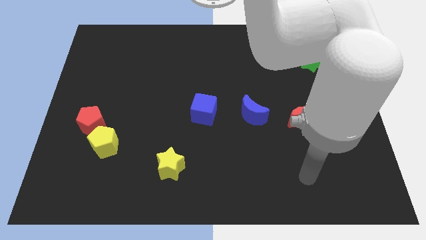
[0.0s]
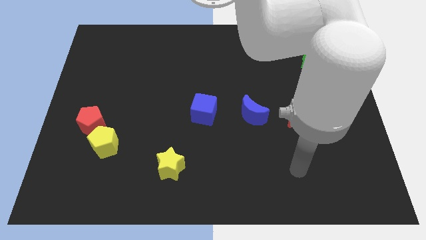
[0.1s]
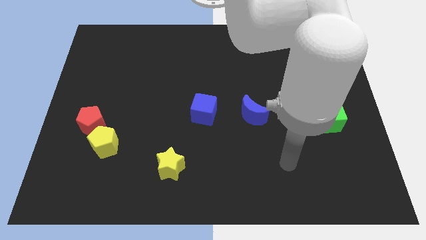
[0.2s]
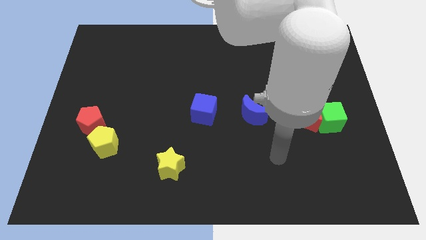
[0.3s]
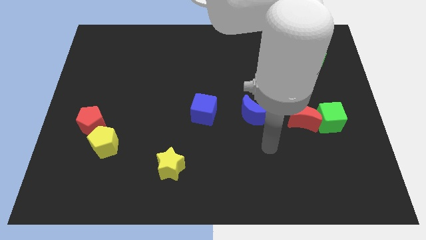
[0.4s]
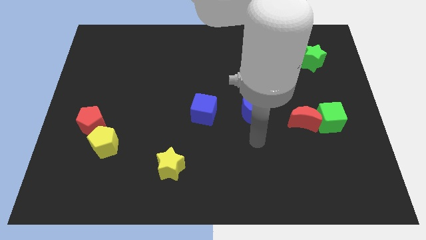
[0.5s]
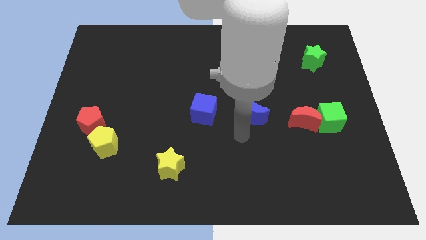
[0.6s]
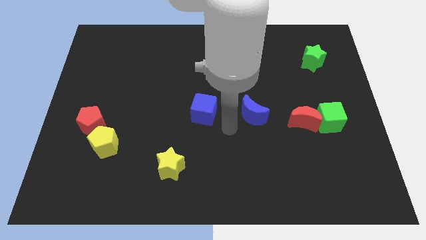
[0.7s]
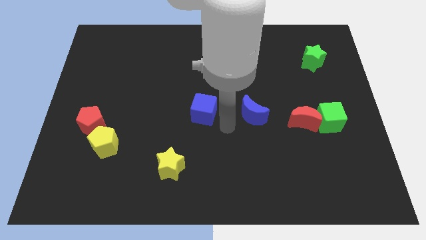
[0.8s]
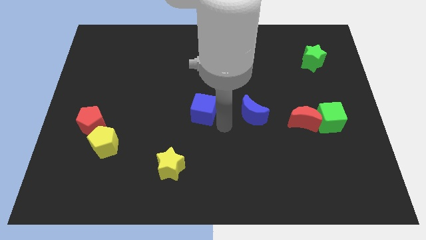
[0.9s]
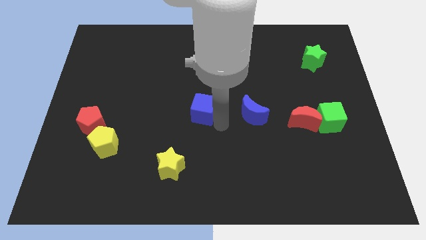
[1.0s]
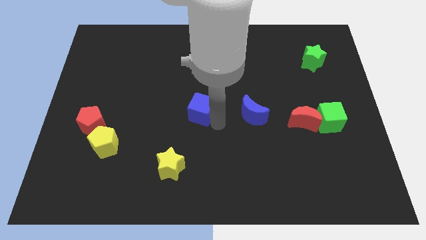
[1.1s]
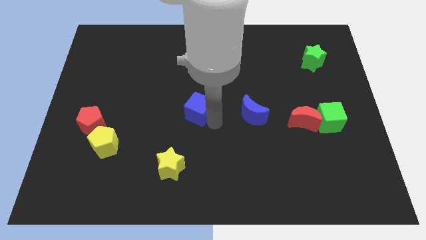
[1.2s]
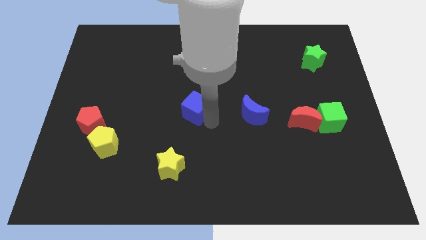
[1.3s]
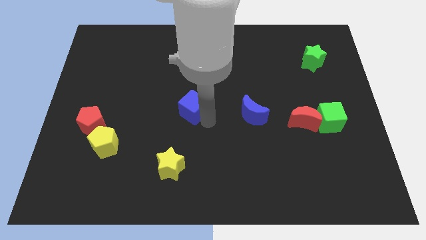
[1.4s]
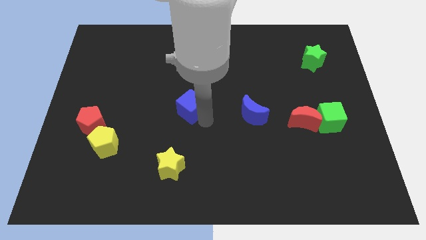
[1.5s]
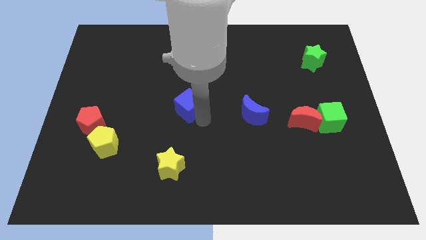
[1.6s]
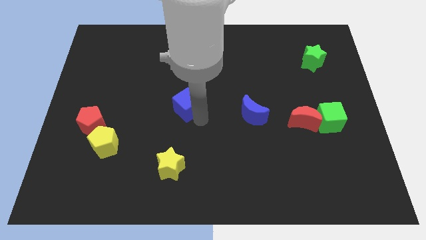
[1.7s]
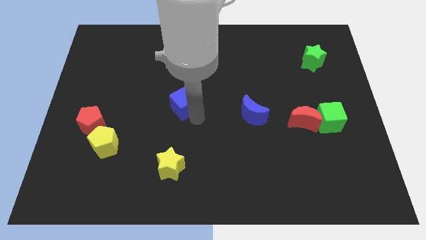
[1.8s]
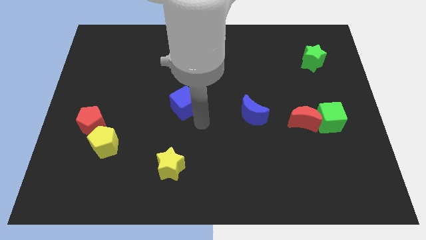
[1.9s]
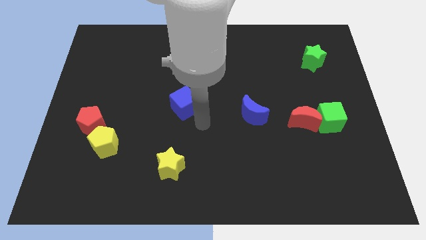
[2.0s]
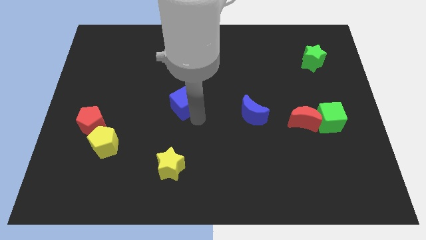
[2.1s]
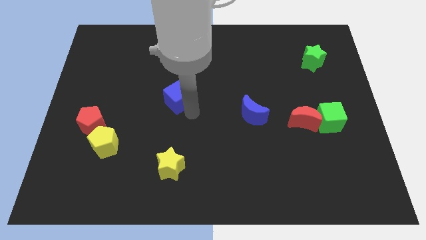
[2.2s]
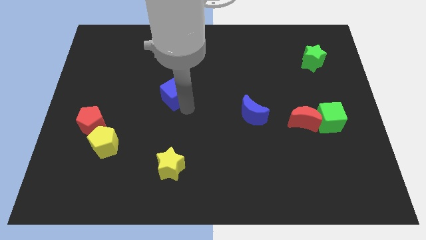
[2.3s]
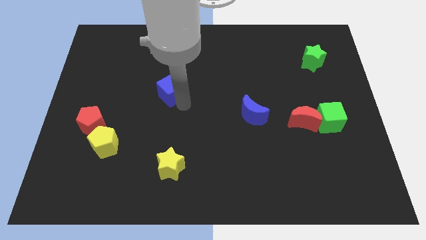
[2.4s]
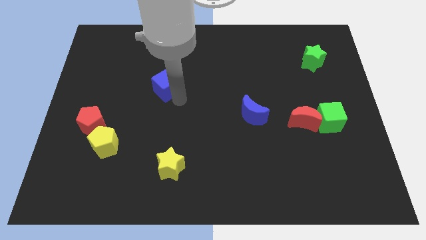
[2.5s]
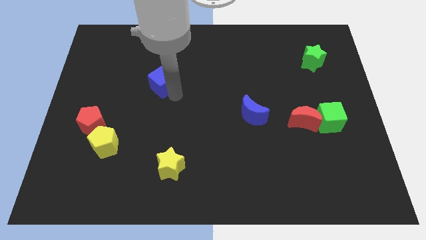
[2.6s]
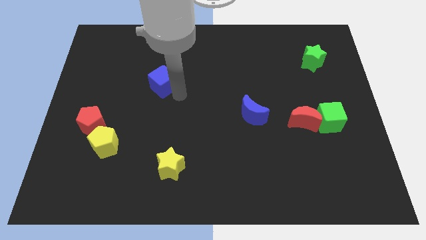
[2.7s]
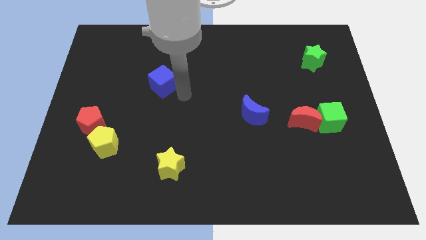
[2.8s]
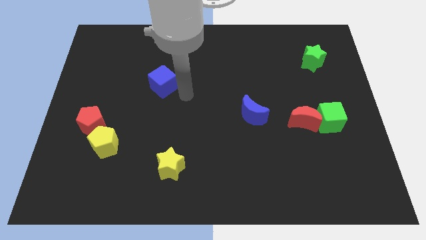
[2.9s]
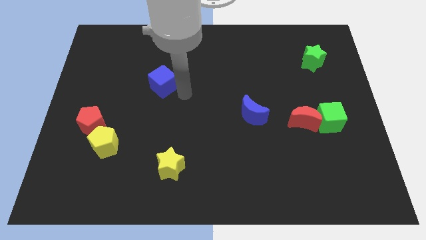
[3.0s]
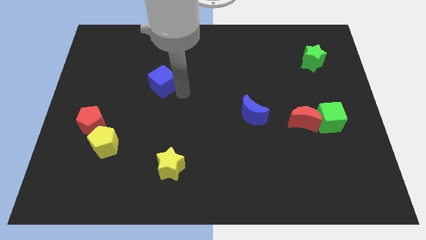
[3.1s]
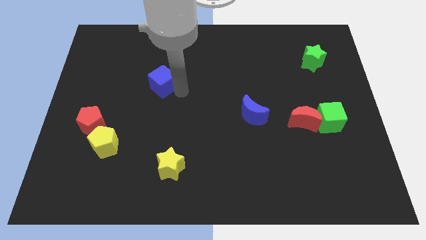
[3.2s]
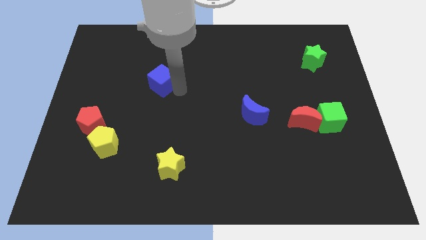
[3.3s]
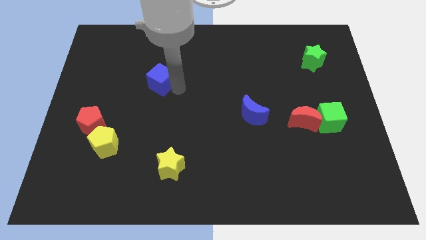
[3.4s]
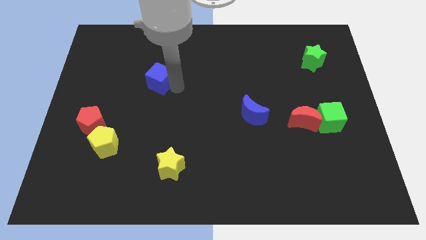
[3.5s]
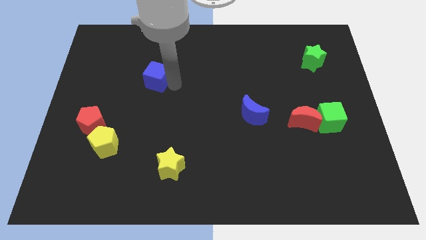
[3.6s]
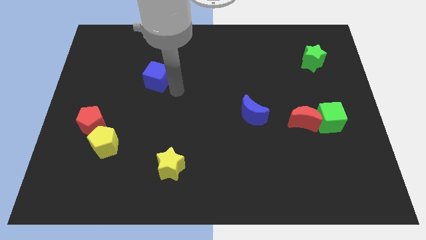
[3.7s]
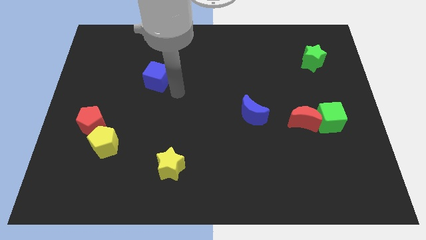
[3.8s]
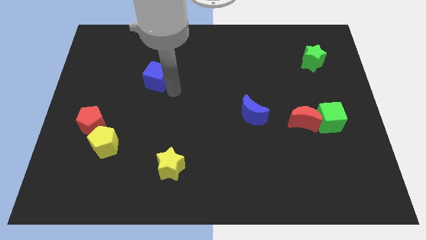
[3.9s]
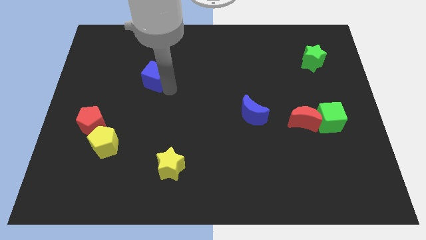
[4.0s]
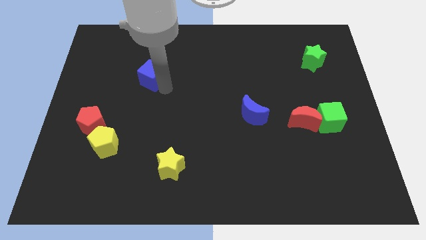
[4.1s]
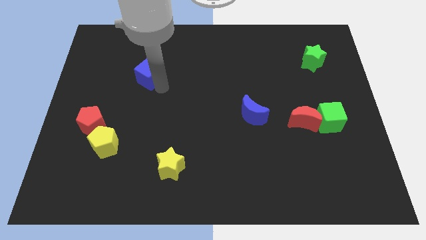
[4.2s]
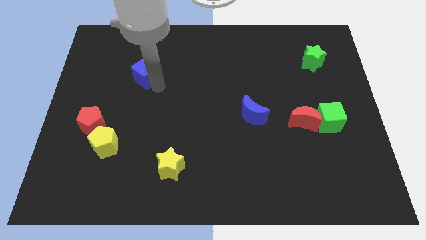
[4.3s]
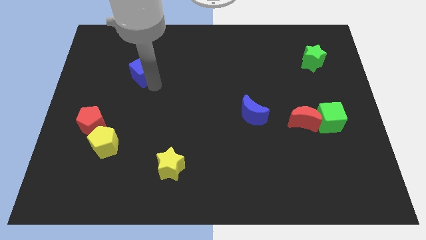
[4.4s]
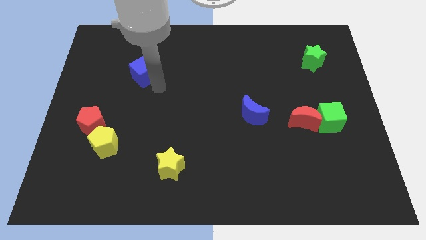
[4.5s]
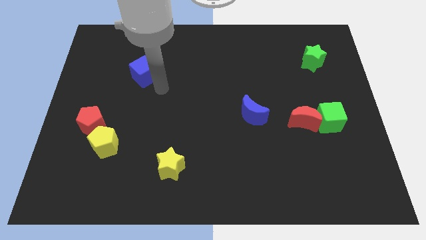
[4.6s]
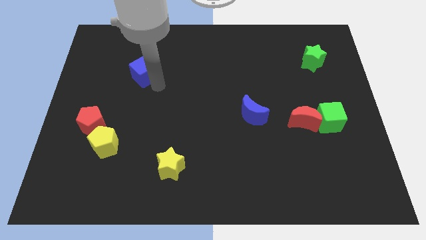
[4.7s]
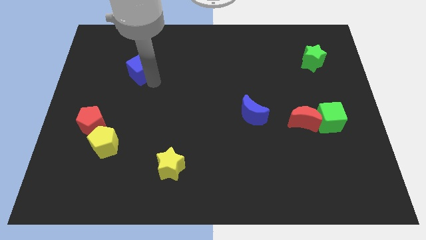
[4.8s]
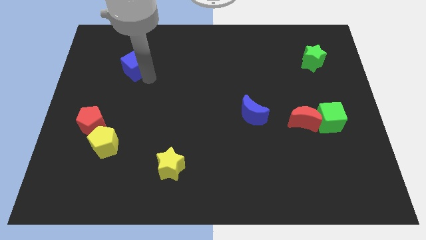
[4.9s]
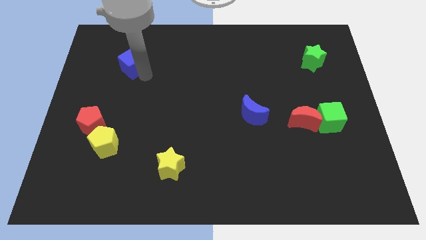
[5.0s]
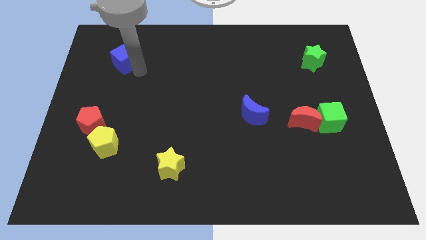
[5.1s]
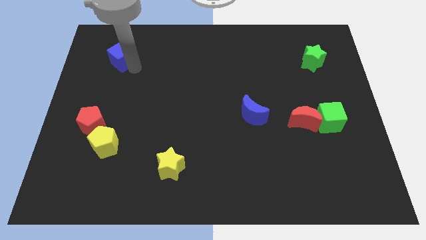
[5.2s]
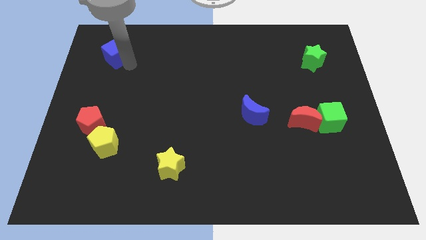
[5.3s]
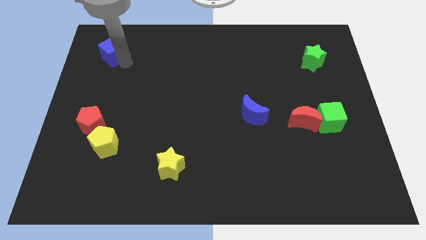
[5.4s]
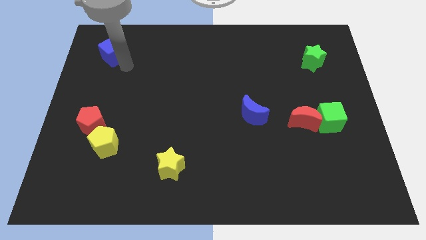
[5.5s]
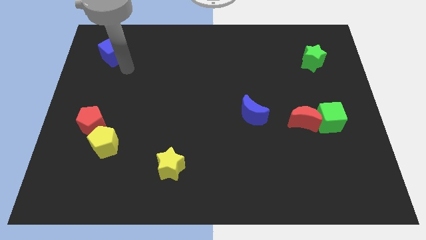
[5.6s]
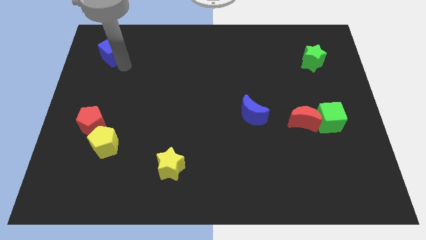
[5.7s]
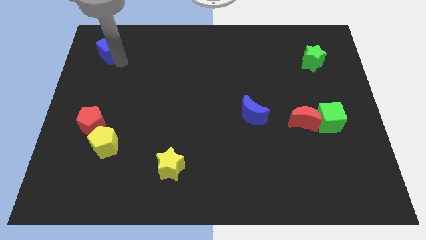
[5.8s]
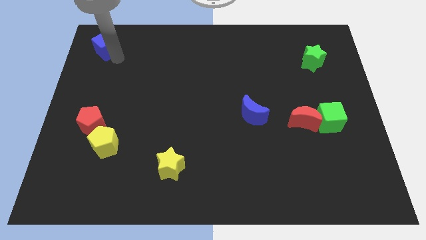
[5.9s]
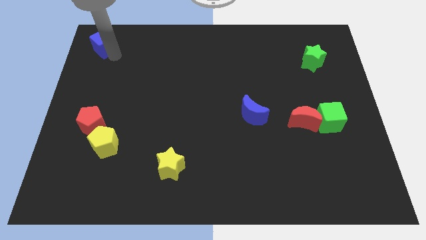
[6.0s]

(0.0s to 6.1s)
move the blue cube to the top left corner
